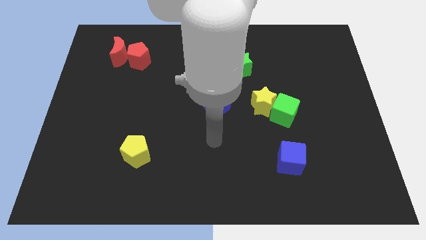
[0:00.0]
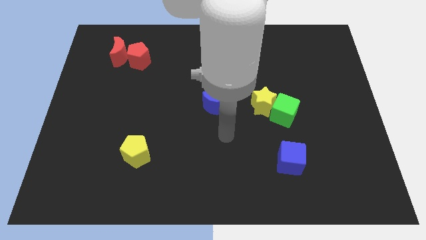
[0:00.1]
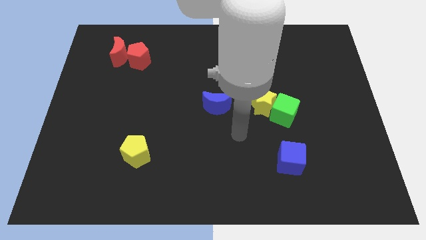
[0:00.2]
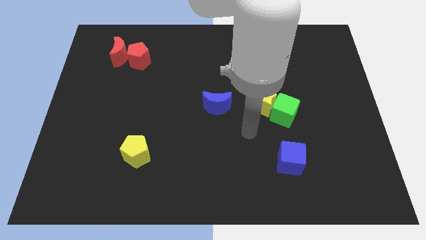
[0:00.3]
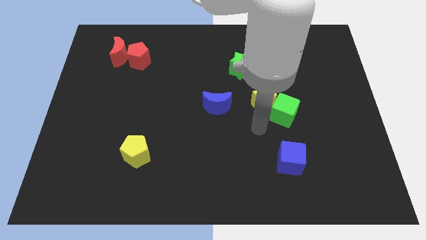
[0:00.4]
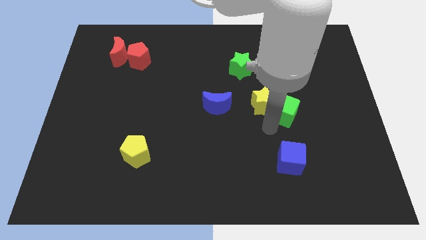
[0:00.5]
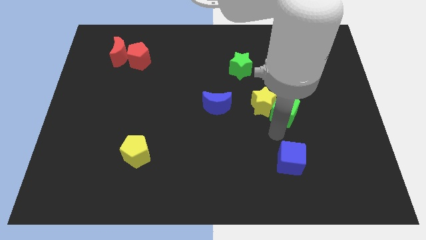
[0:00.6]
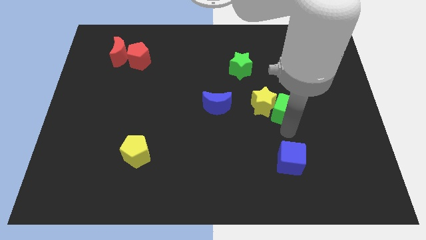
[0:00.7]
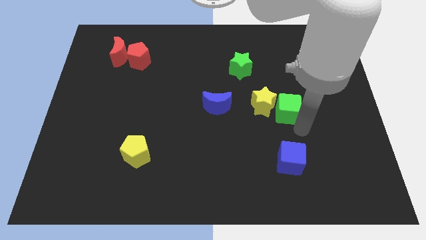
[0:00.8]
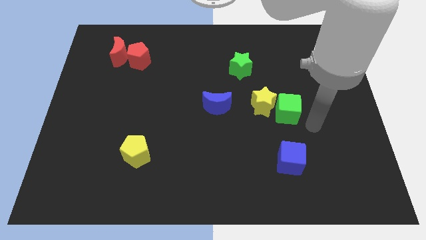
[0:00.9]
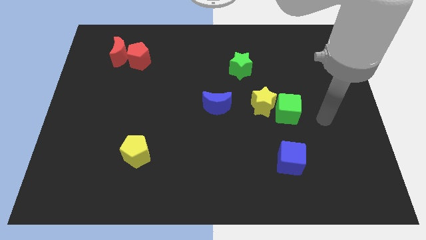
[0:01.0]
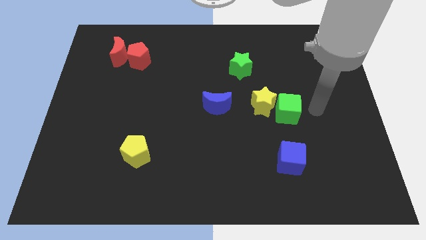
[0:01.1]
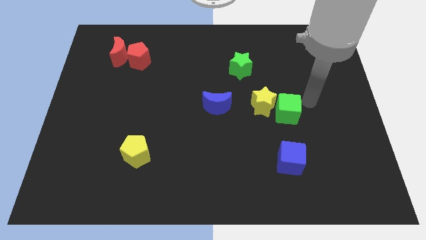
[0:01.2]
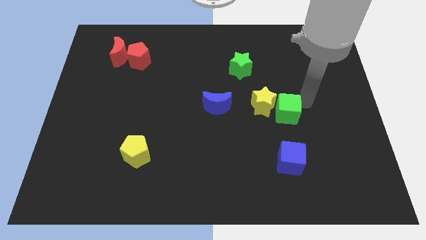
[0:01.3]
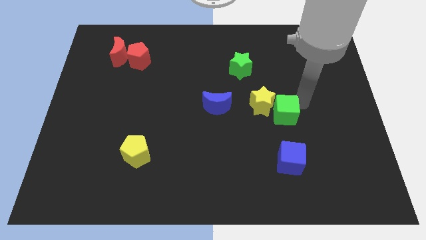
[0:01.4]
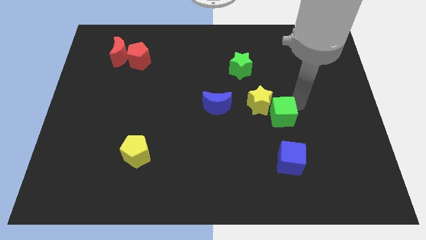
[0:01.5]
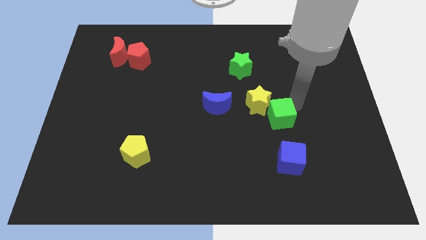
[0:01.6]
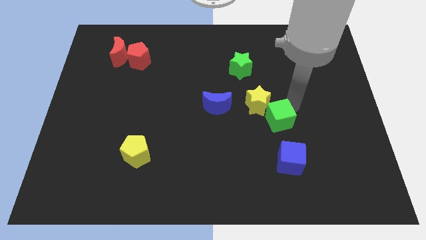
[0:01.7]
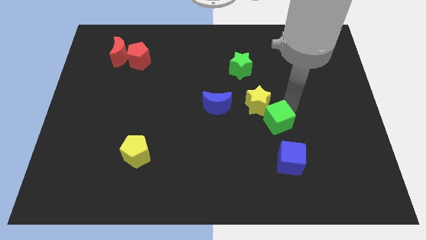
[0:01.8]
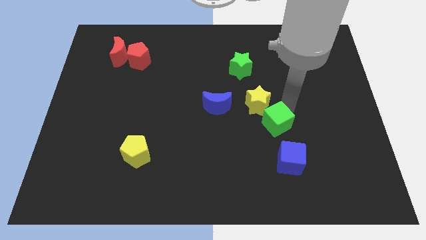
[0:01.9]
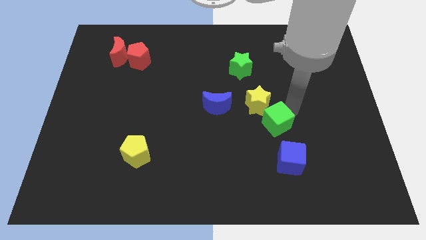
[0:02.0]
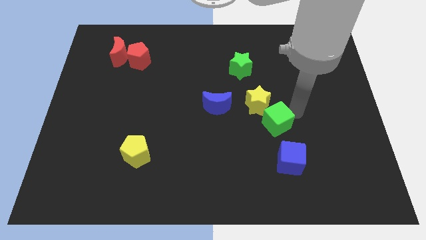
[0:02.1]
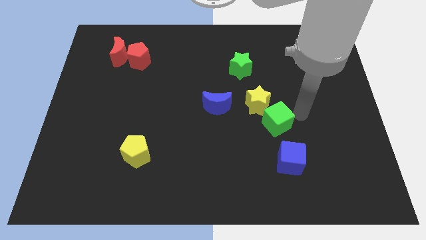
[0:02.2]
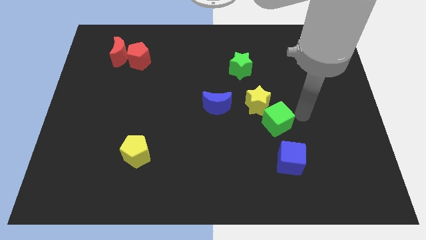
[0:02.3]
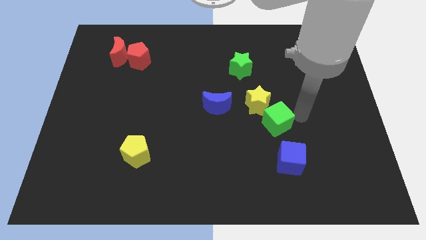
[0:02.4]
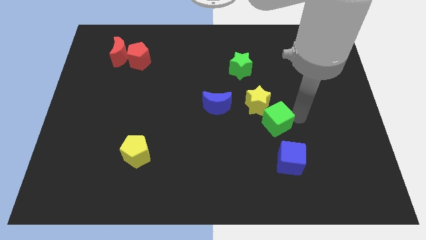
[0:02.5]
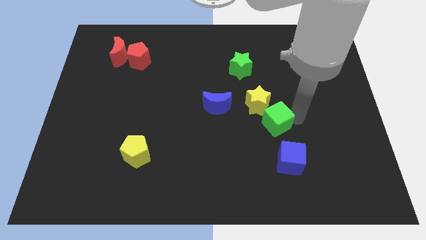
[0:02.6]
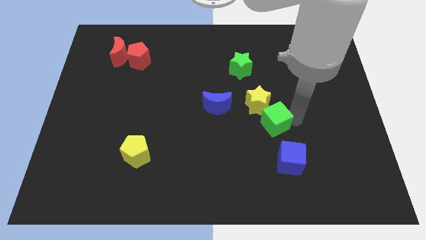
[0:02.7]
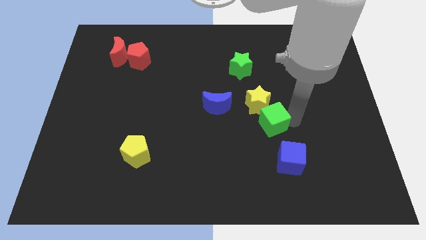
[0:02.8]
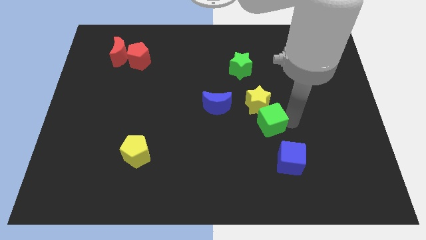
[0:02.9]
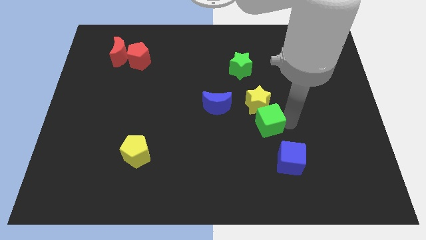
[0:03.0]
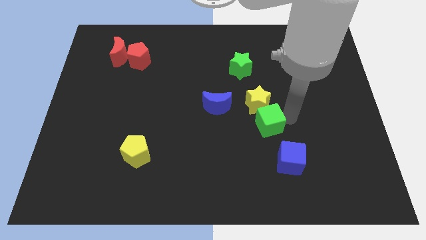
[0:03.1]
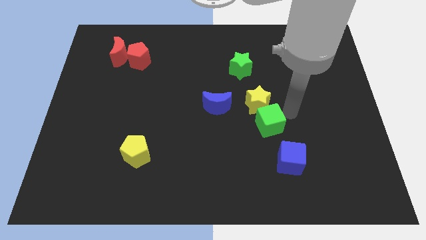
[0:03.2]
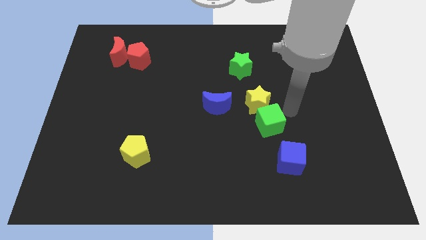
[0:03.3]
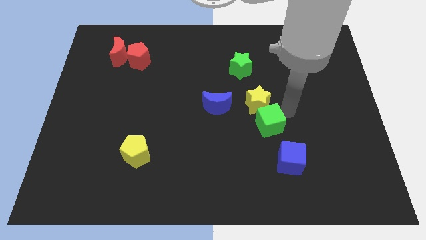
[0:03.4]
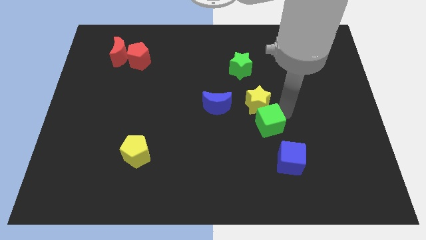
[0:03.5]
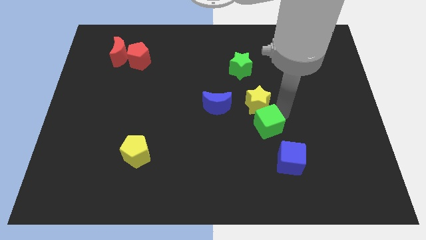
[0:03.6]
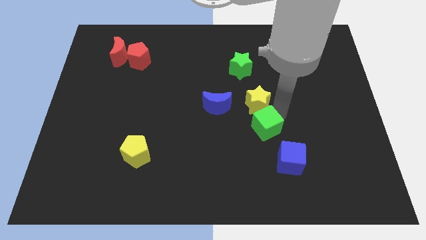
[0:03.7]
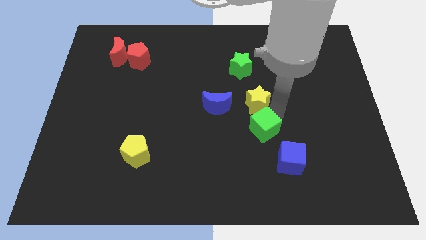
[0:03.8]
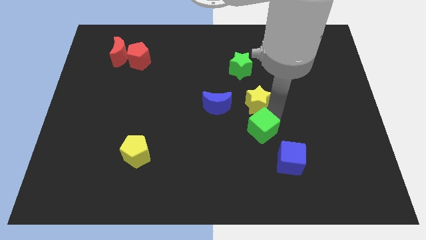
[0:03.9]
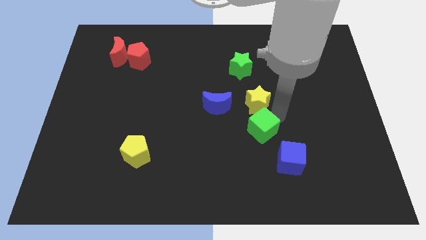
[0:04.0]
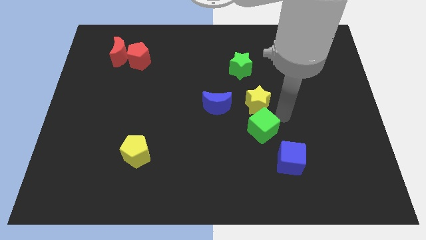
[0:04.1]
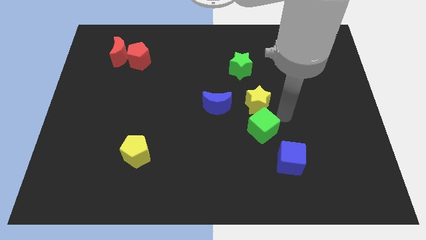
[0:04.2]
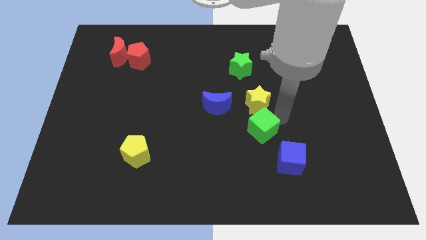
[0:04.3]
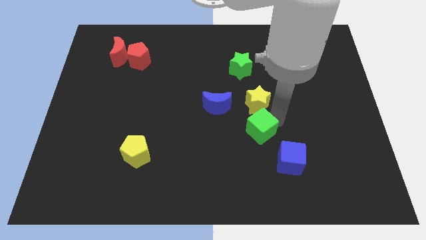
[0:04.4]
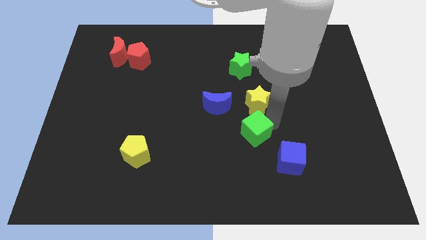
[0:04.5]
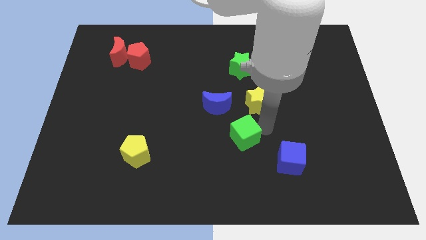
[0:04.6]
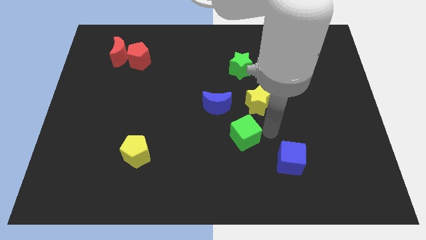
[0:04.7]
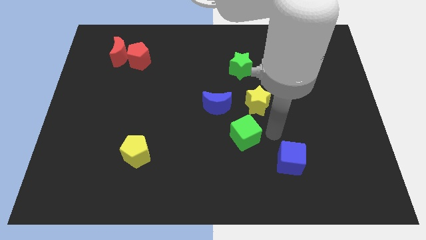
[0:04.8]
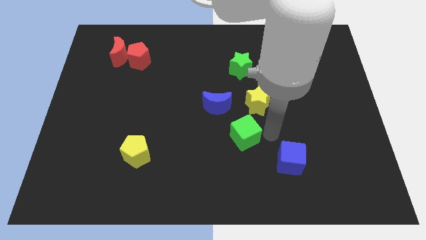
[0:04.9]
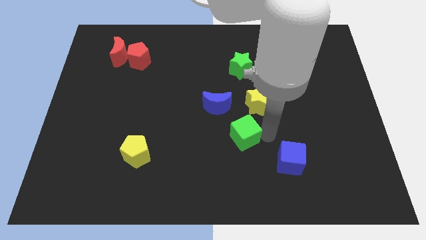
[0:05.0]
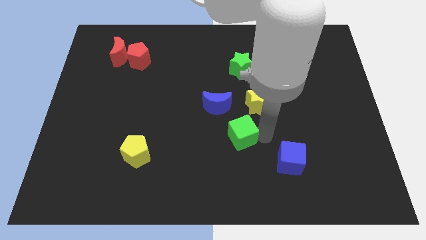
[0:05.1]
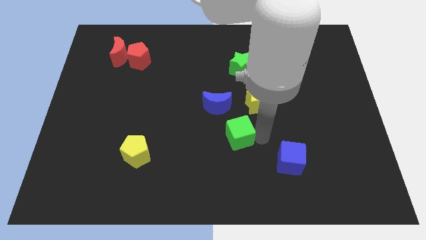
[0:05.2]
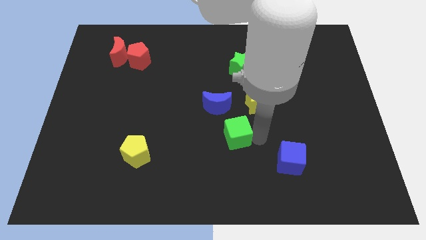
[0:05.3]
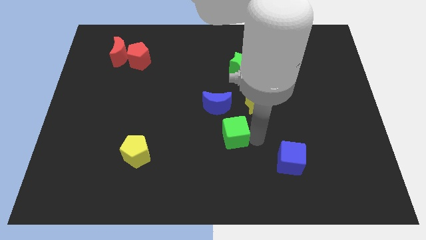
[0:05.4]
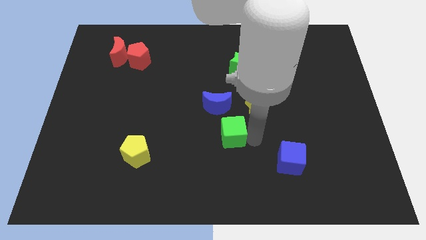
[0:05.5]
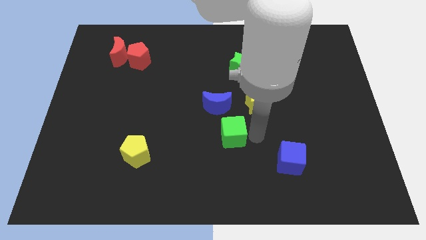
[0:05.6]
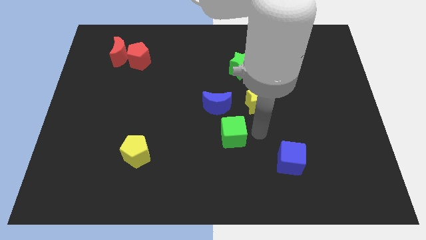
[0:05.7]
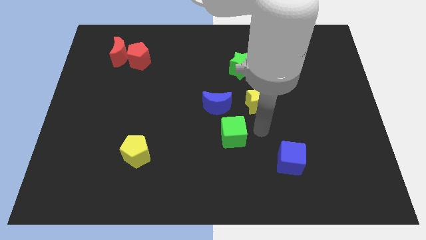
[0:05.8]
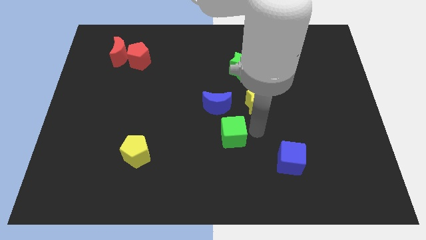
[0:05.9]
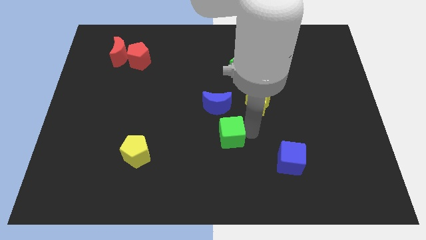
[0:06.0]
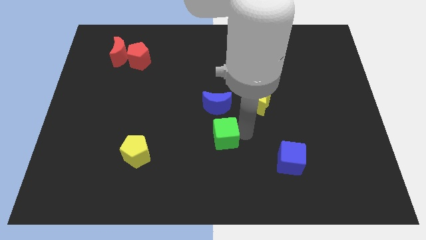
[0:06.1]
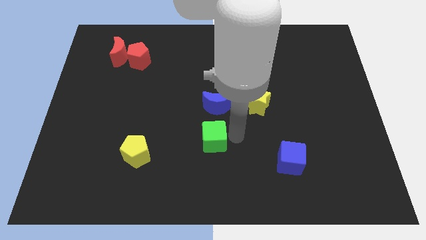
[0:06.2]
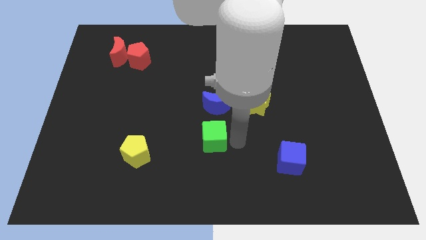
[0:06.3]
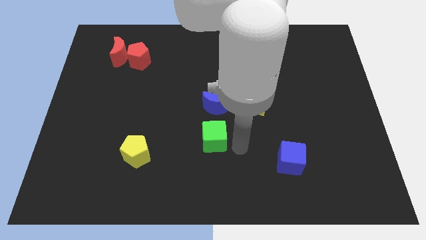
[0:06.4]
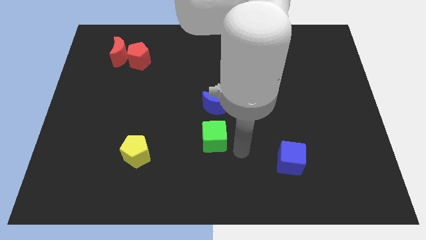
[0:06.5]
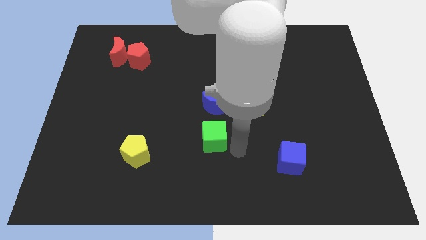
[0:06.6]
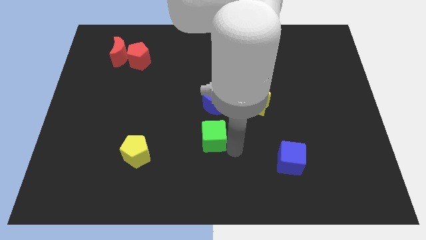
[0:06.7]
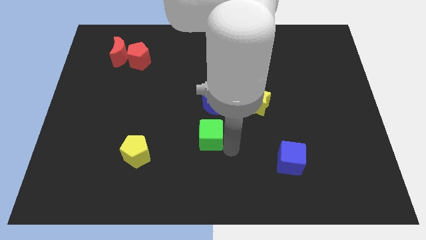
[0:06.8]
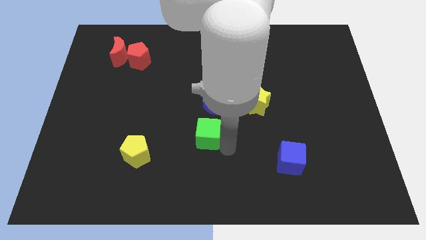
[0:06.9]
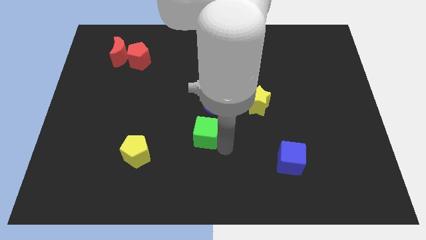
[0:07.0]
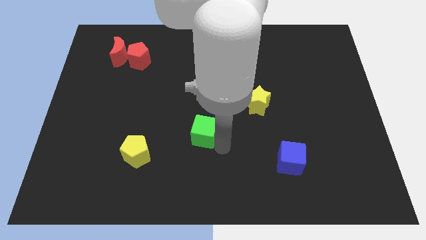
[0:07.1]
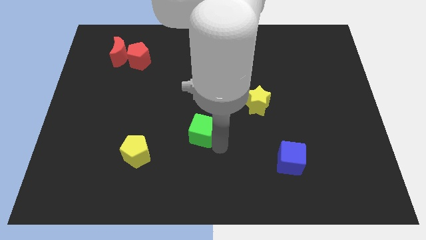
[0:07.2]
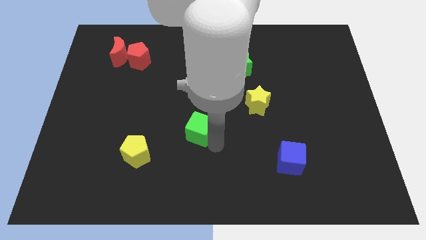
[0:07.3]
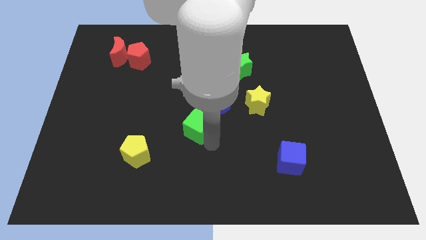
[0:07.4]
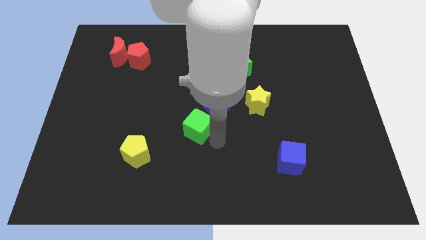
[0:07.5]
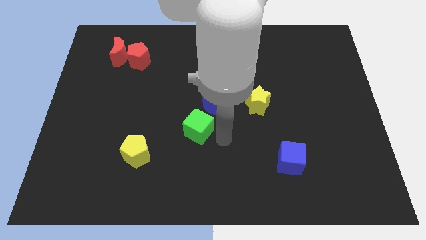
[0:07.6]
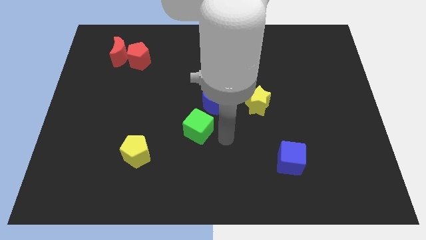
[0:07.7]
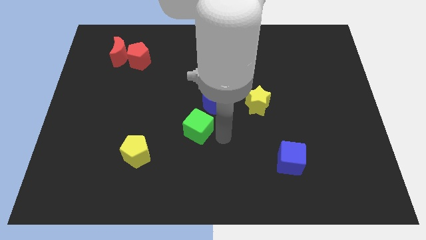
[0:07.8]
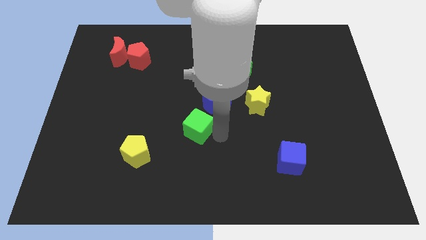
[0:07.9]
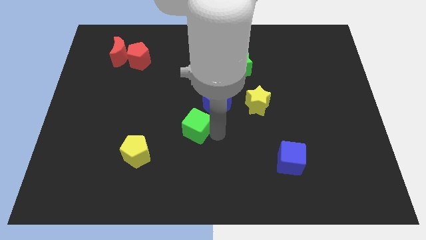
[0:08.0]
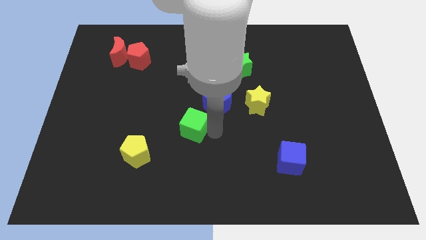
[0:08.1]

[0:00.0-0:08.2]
push the green cube left

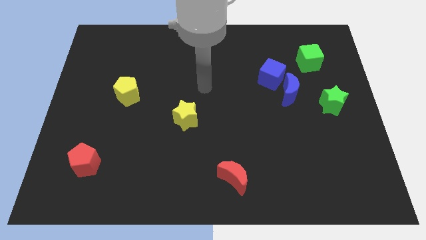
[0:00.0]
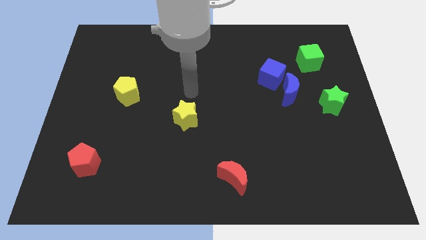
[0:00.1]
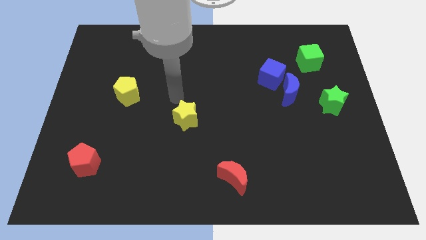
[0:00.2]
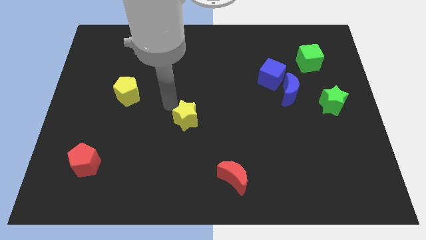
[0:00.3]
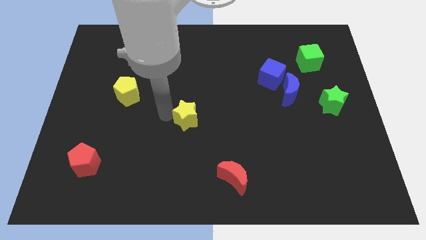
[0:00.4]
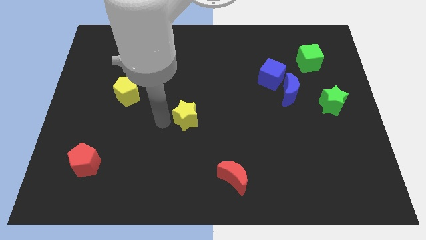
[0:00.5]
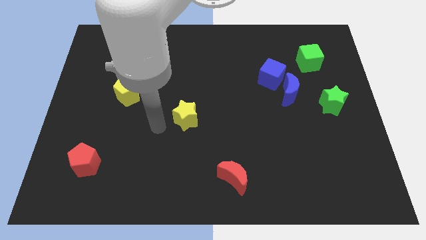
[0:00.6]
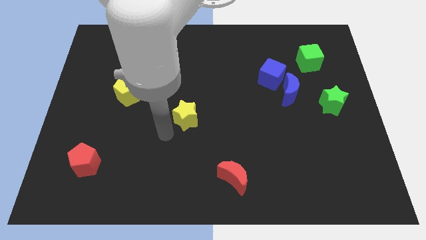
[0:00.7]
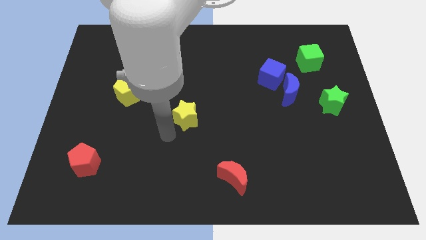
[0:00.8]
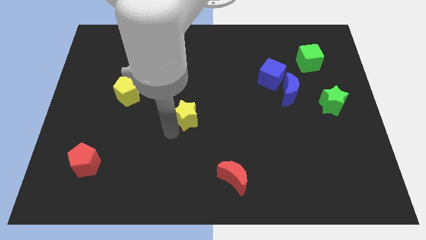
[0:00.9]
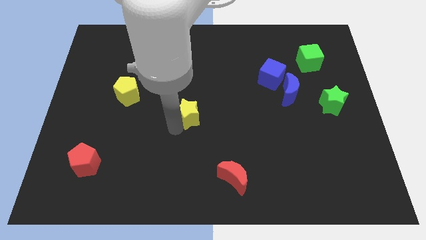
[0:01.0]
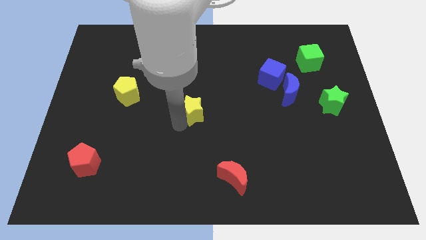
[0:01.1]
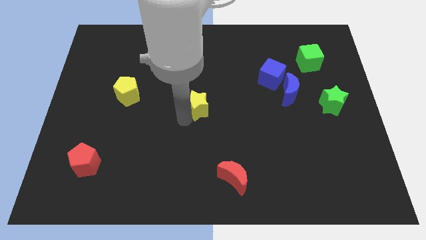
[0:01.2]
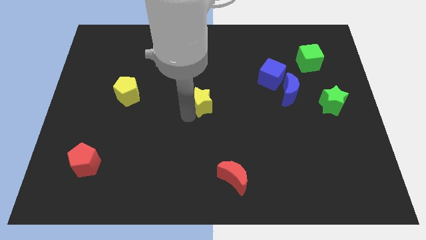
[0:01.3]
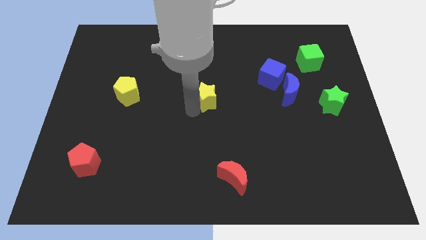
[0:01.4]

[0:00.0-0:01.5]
move the yellow star upwards and to the right somewhat
